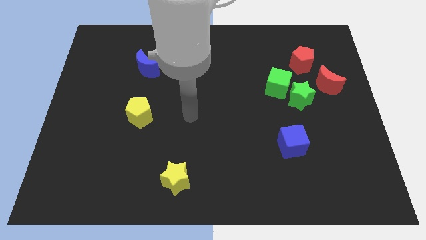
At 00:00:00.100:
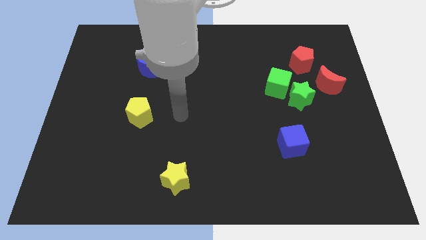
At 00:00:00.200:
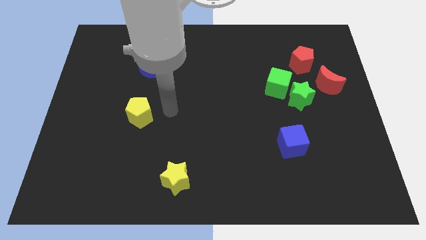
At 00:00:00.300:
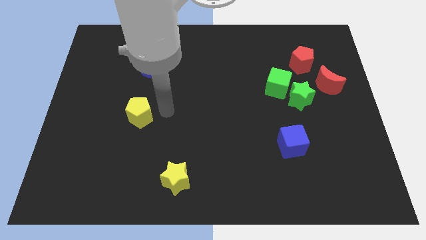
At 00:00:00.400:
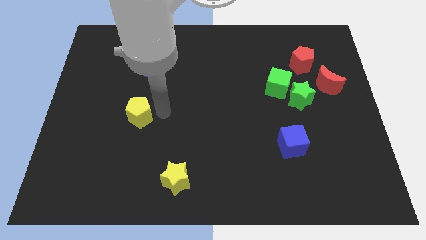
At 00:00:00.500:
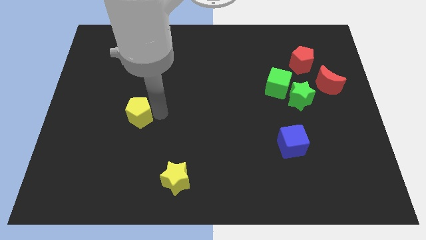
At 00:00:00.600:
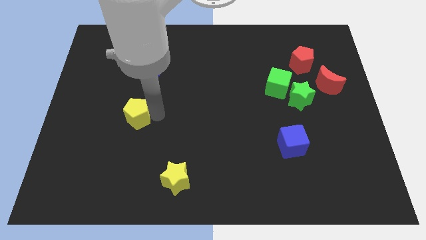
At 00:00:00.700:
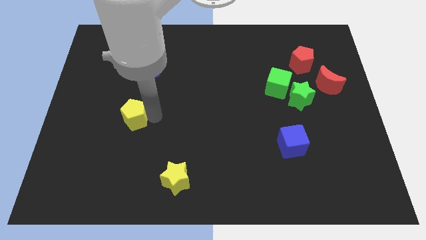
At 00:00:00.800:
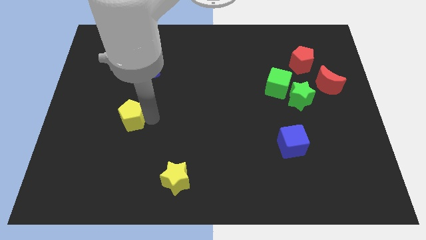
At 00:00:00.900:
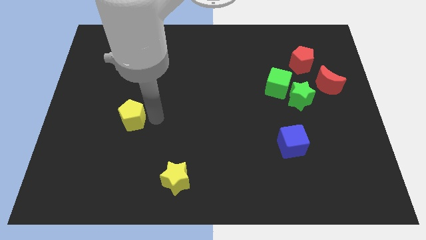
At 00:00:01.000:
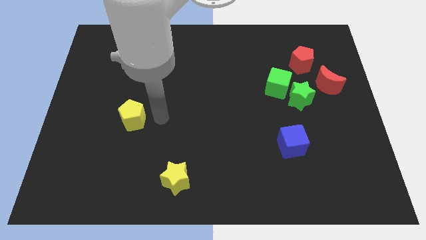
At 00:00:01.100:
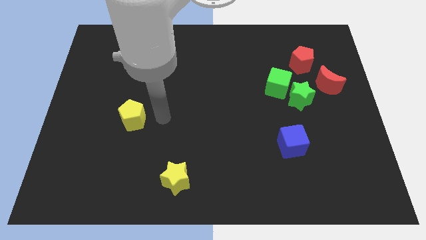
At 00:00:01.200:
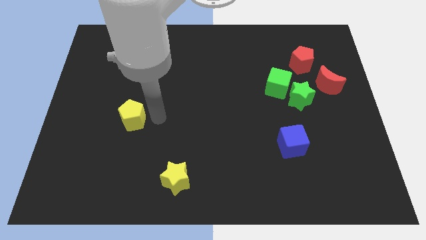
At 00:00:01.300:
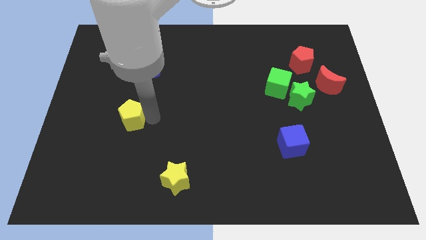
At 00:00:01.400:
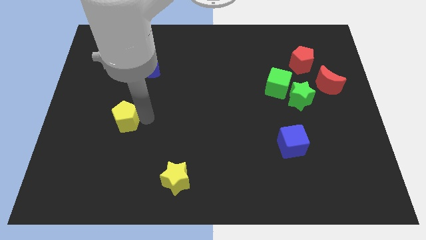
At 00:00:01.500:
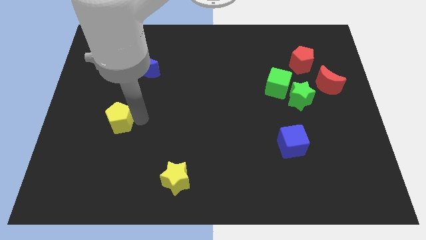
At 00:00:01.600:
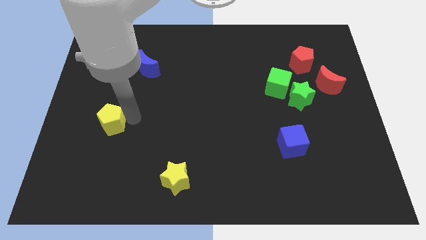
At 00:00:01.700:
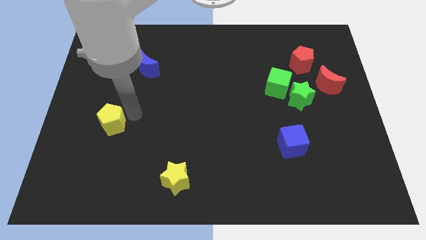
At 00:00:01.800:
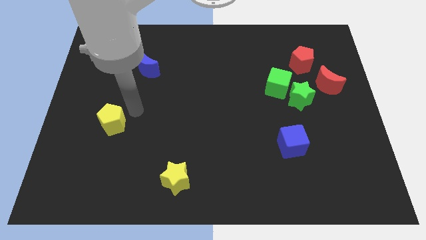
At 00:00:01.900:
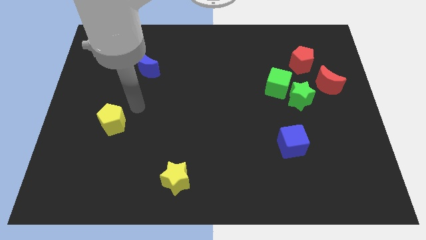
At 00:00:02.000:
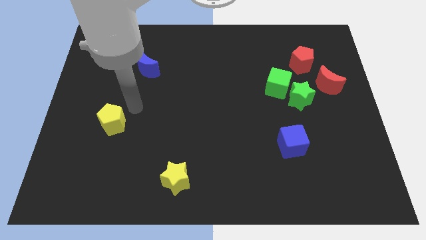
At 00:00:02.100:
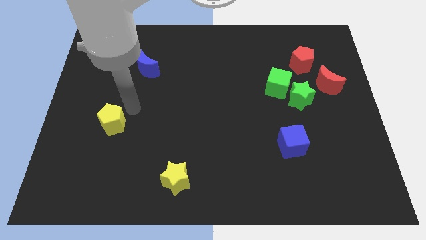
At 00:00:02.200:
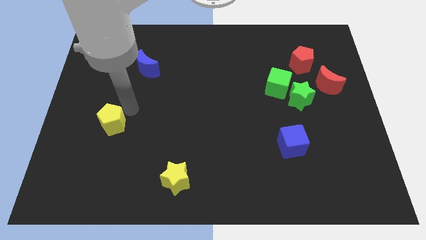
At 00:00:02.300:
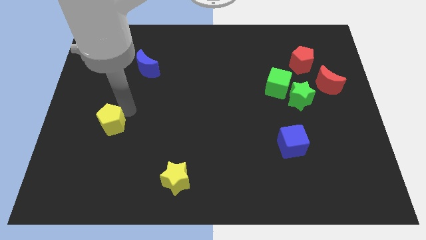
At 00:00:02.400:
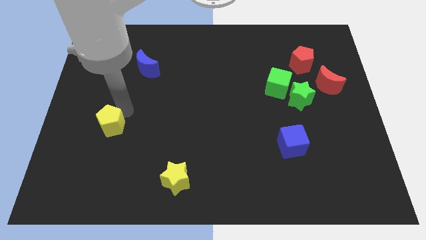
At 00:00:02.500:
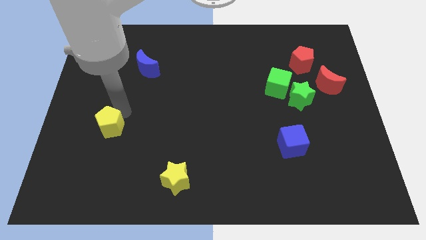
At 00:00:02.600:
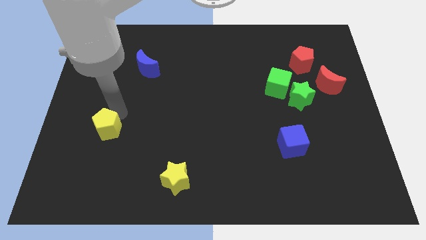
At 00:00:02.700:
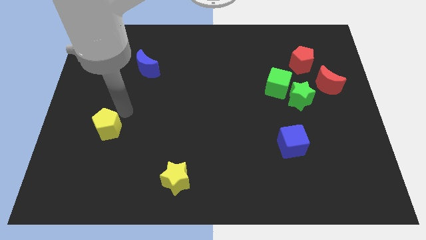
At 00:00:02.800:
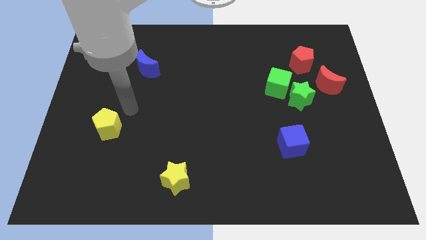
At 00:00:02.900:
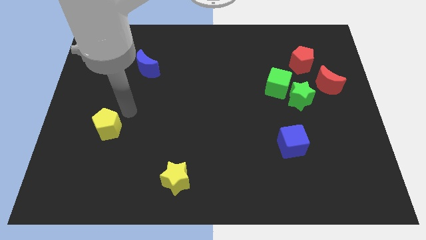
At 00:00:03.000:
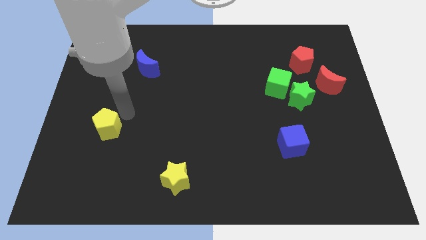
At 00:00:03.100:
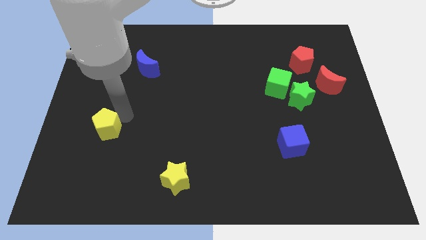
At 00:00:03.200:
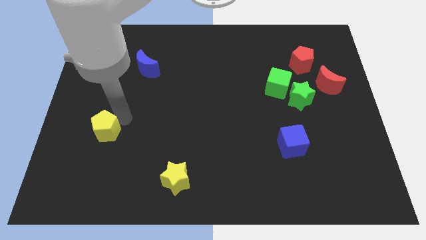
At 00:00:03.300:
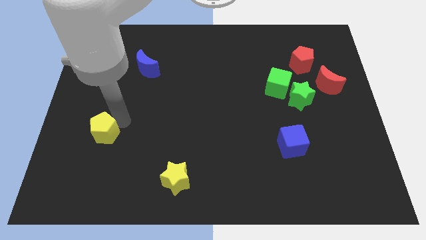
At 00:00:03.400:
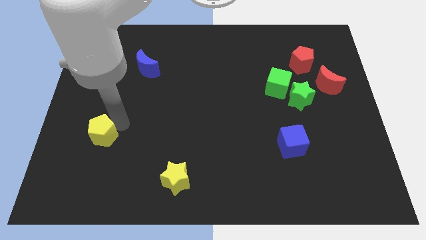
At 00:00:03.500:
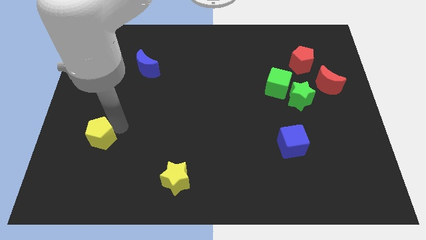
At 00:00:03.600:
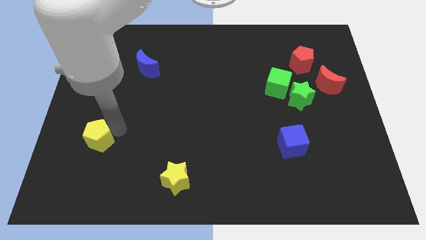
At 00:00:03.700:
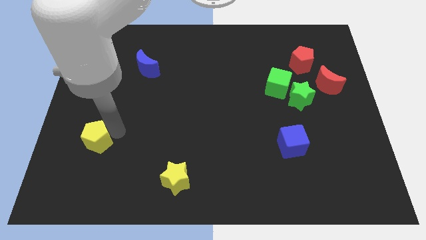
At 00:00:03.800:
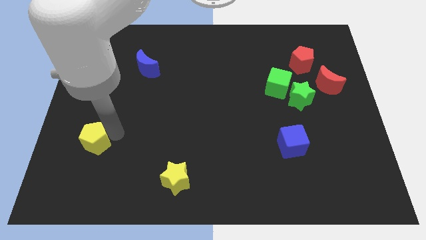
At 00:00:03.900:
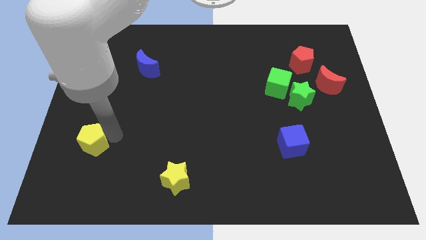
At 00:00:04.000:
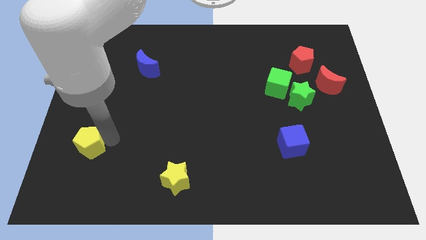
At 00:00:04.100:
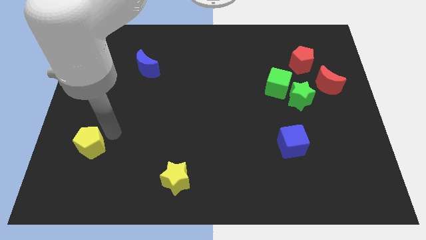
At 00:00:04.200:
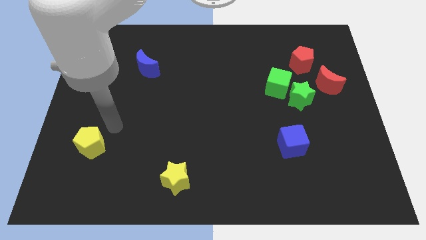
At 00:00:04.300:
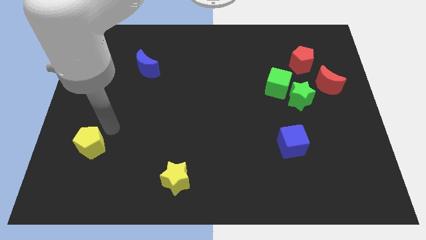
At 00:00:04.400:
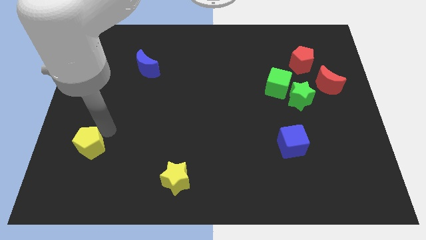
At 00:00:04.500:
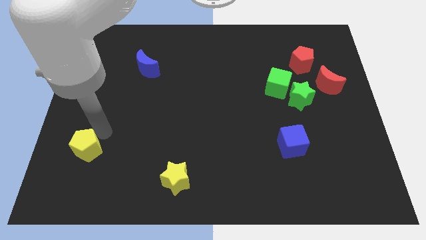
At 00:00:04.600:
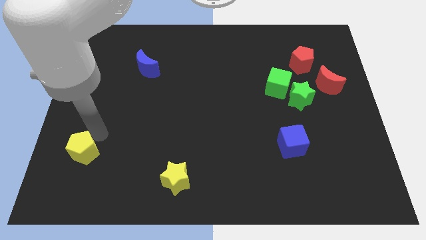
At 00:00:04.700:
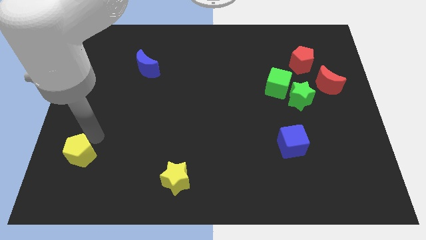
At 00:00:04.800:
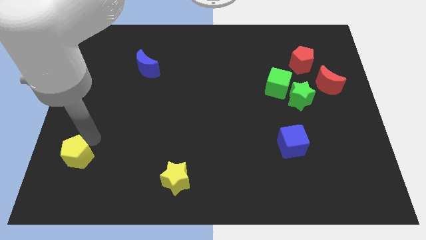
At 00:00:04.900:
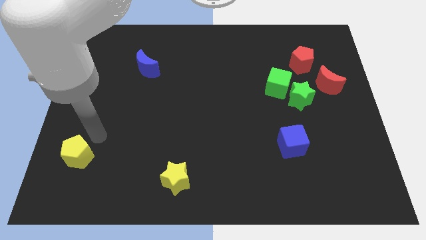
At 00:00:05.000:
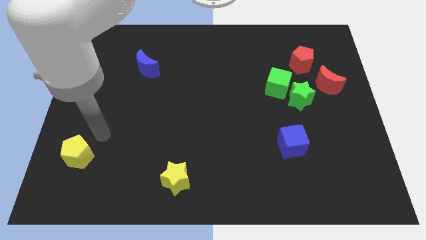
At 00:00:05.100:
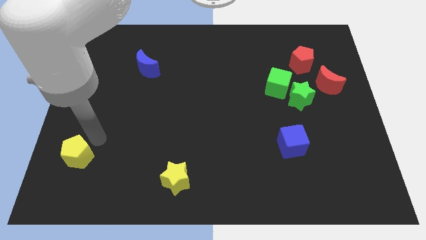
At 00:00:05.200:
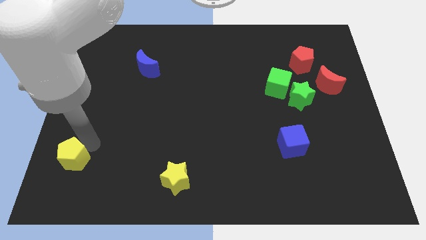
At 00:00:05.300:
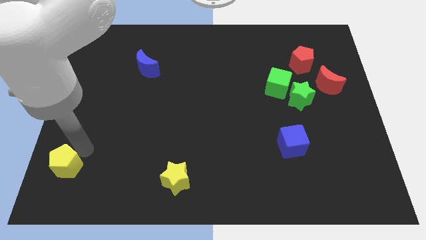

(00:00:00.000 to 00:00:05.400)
move the yellow pentagon to the bottom left corner
